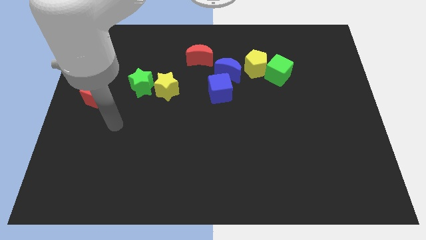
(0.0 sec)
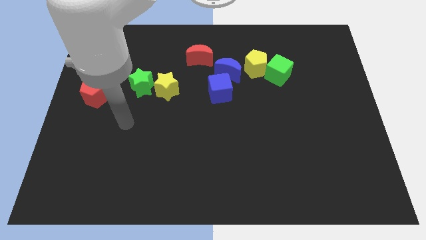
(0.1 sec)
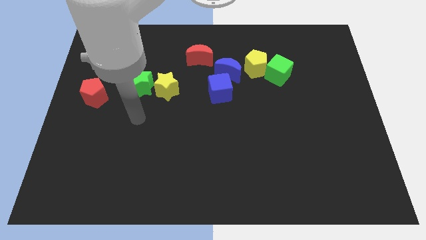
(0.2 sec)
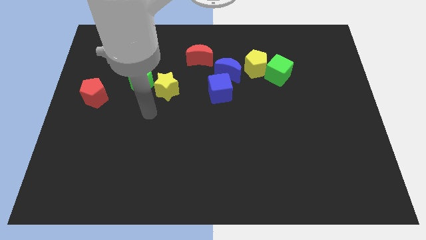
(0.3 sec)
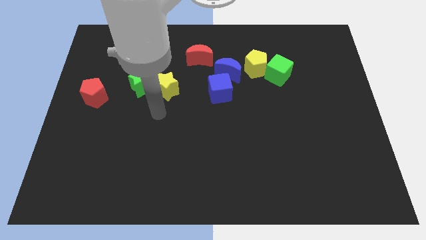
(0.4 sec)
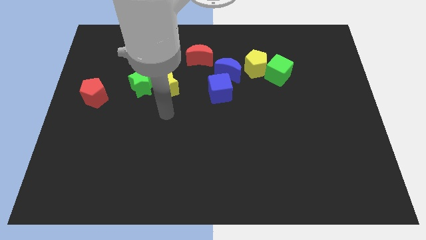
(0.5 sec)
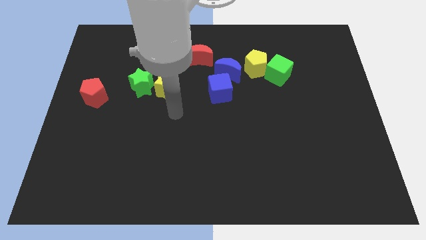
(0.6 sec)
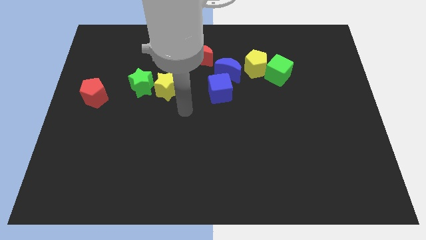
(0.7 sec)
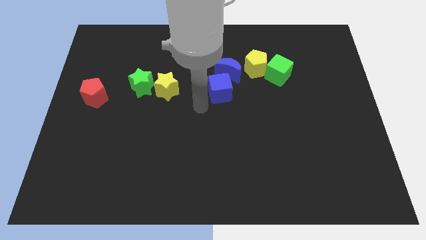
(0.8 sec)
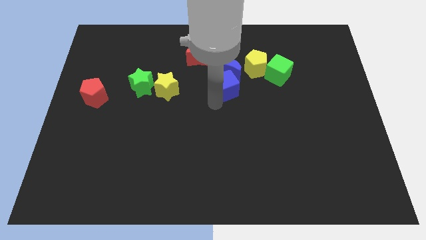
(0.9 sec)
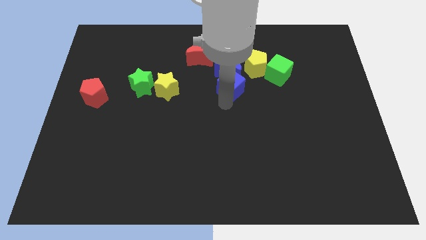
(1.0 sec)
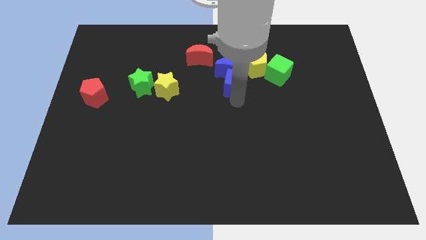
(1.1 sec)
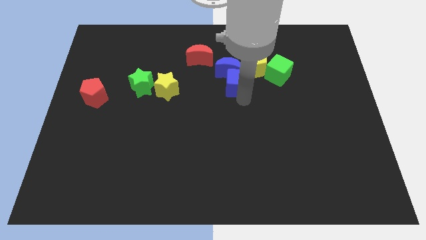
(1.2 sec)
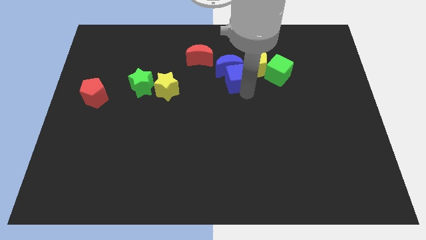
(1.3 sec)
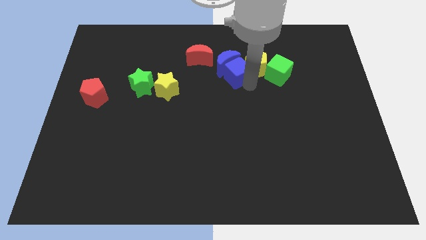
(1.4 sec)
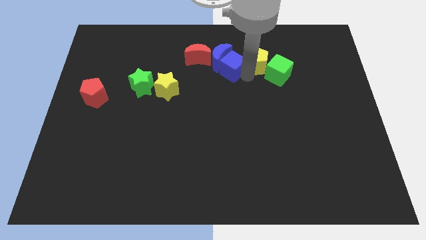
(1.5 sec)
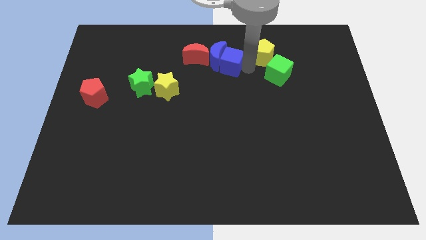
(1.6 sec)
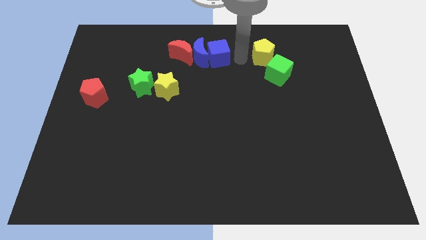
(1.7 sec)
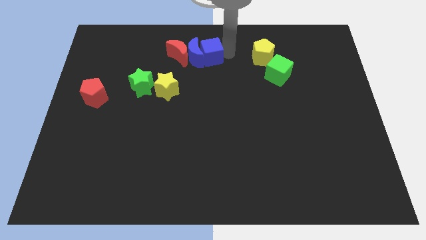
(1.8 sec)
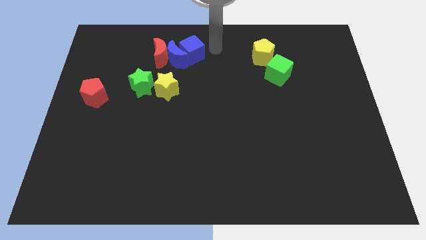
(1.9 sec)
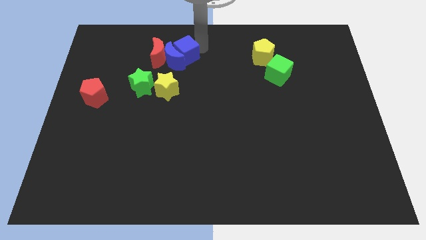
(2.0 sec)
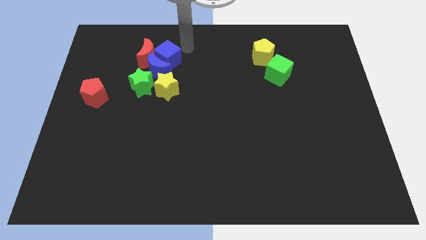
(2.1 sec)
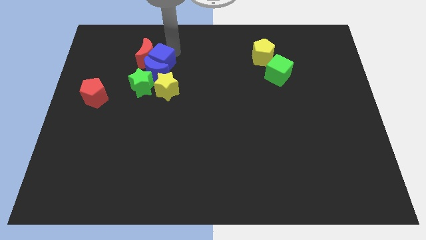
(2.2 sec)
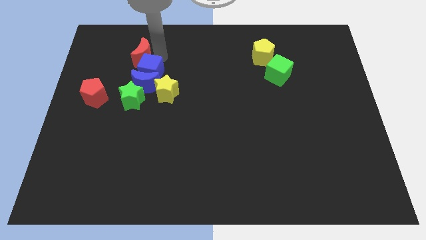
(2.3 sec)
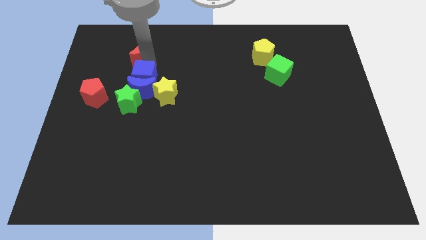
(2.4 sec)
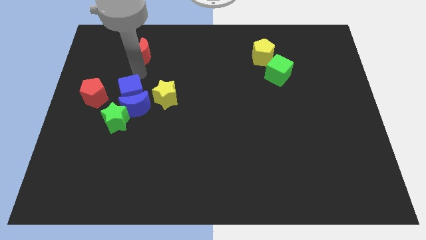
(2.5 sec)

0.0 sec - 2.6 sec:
push the blue moon down and left

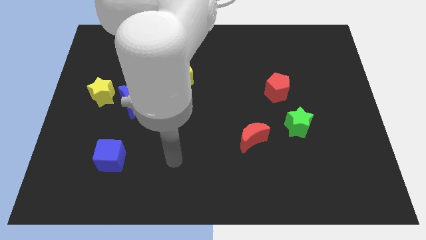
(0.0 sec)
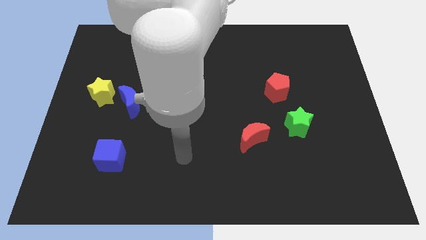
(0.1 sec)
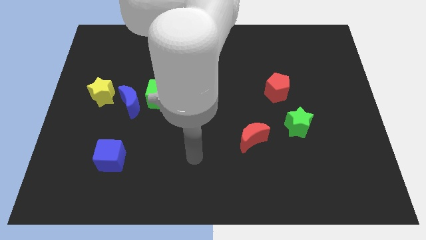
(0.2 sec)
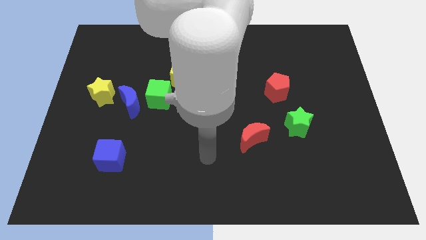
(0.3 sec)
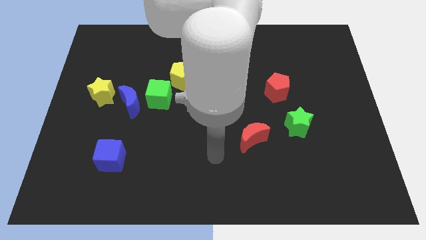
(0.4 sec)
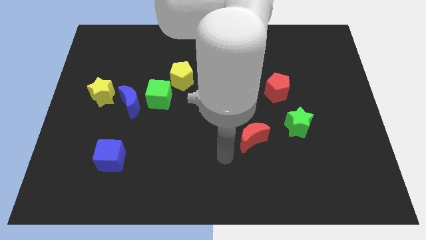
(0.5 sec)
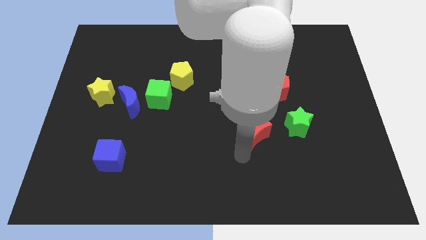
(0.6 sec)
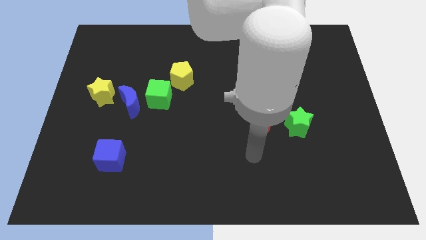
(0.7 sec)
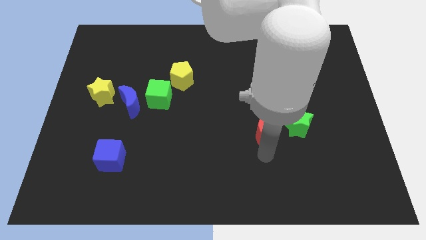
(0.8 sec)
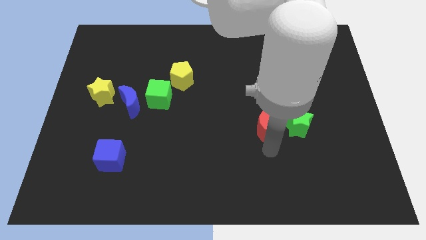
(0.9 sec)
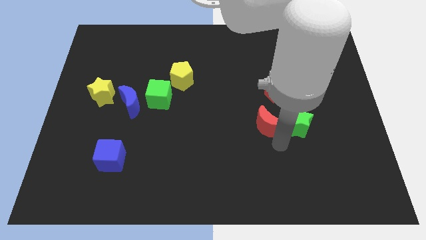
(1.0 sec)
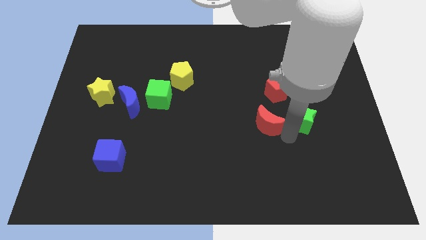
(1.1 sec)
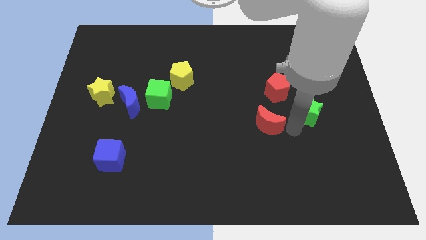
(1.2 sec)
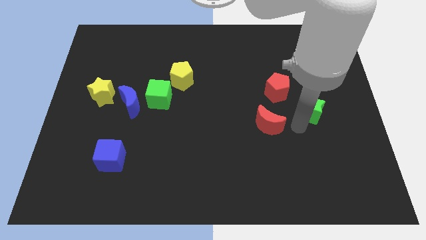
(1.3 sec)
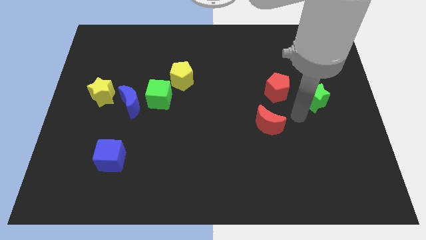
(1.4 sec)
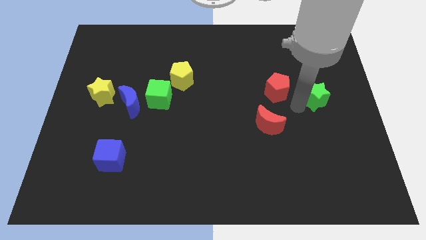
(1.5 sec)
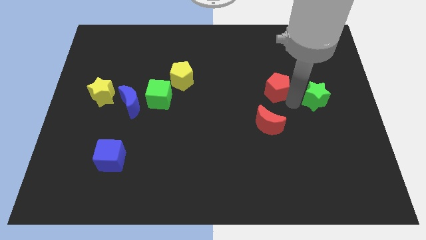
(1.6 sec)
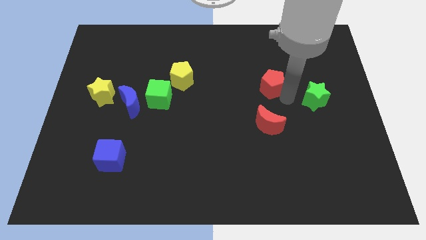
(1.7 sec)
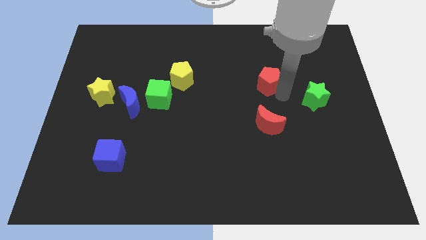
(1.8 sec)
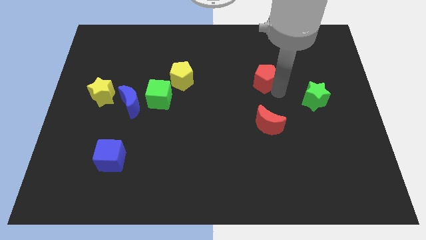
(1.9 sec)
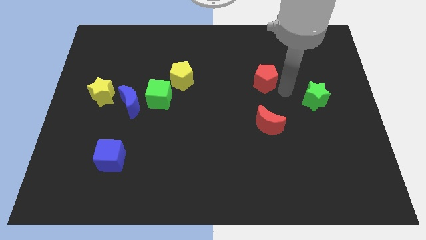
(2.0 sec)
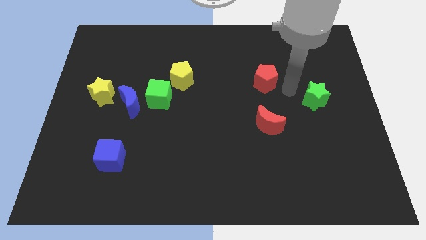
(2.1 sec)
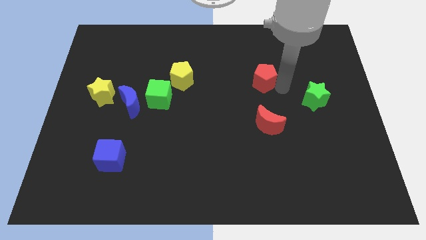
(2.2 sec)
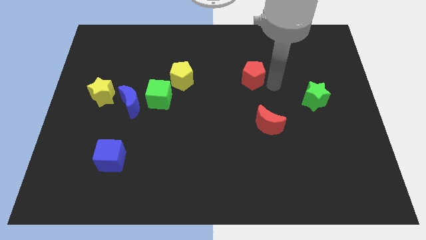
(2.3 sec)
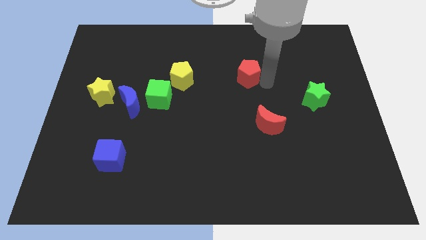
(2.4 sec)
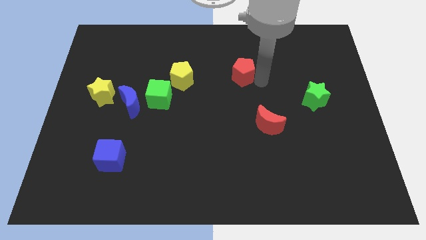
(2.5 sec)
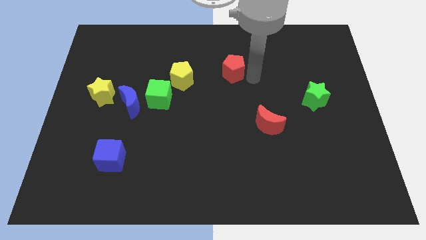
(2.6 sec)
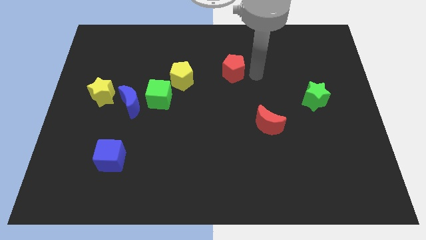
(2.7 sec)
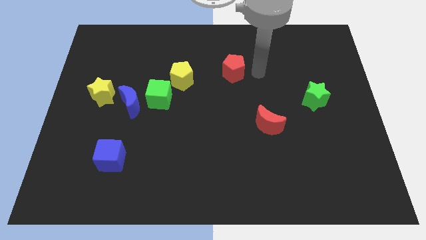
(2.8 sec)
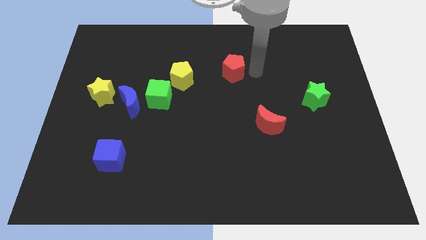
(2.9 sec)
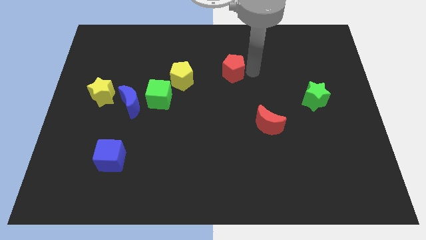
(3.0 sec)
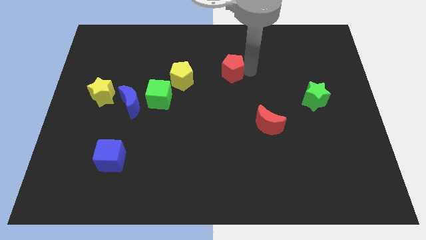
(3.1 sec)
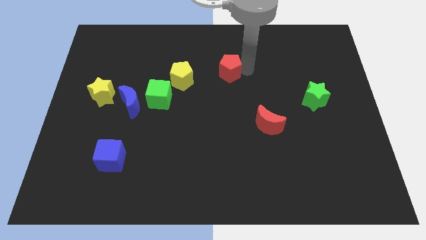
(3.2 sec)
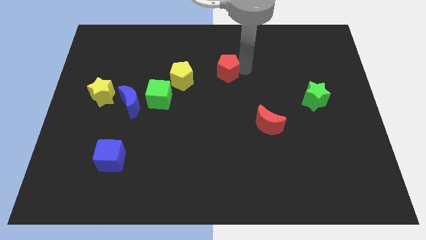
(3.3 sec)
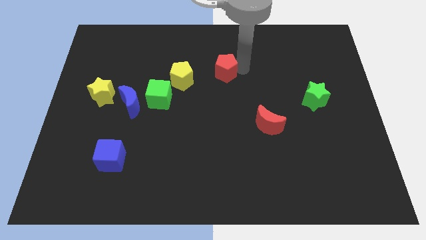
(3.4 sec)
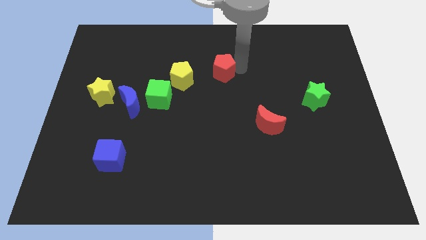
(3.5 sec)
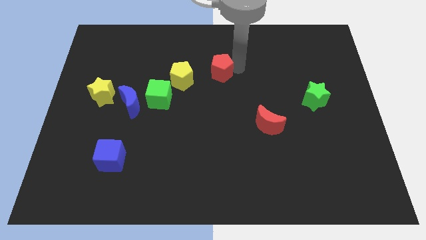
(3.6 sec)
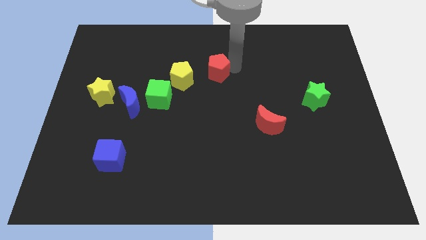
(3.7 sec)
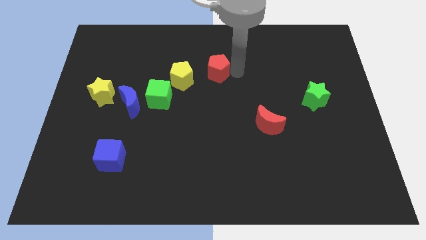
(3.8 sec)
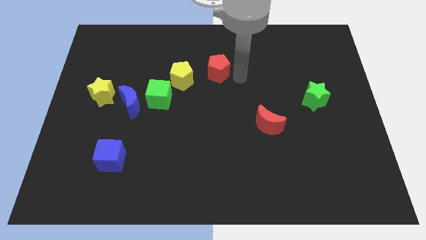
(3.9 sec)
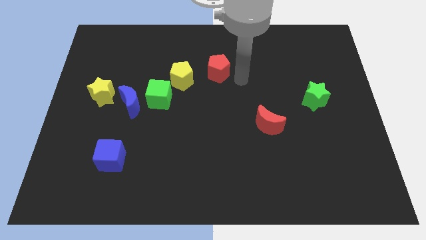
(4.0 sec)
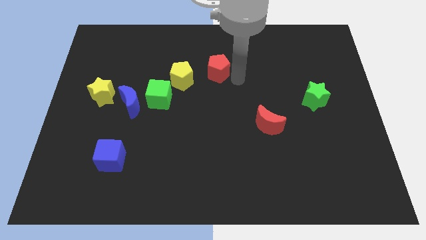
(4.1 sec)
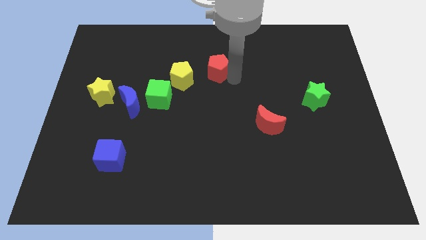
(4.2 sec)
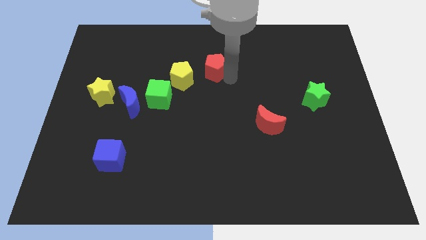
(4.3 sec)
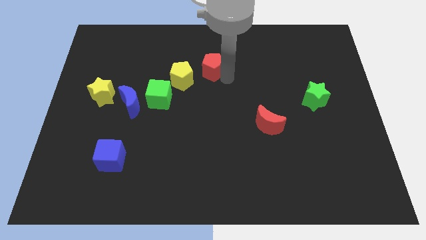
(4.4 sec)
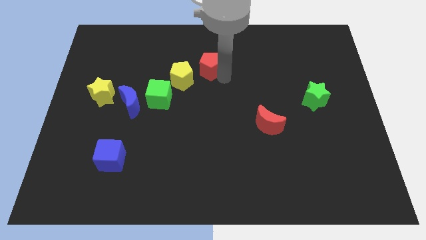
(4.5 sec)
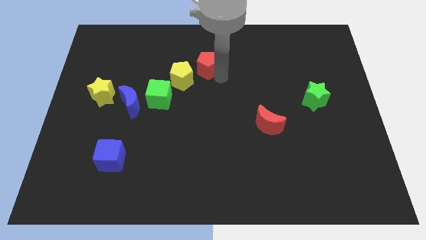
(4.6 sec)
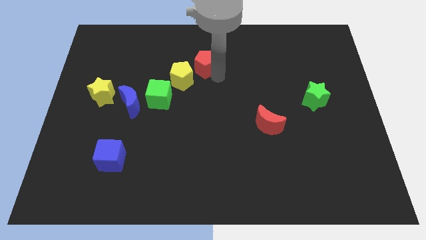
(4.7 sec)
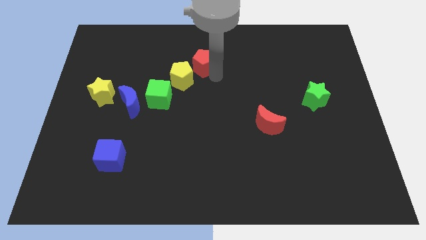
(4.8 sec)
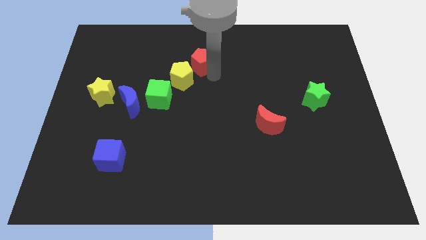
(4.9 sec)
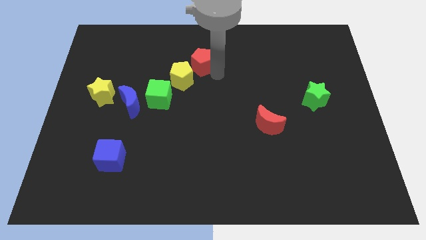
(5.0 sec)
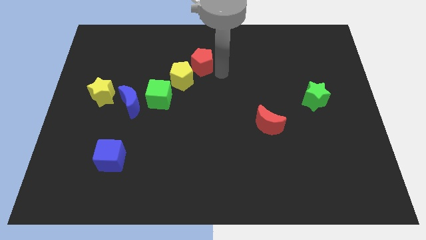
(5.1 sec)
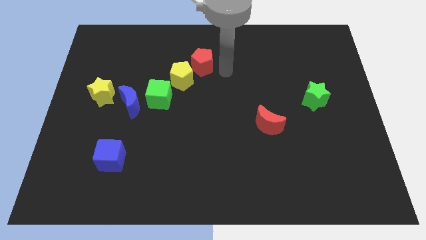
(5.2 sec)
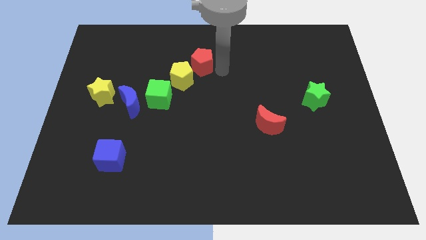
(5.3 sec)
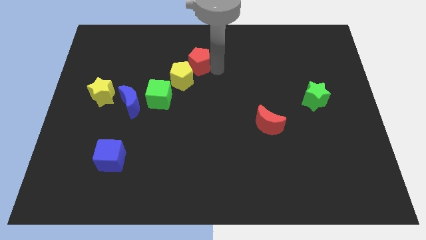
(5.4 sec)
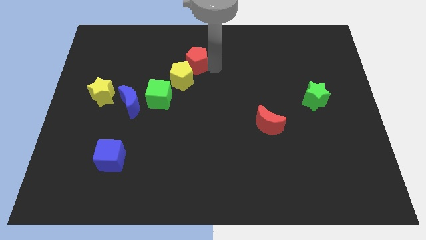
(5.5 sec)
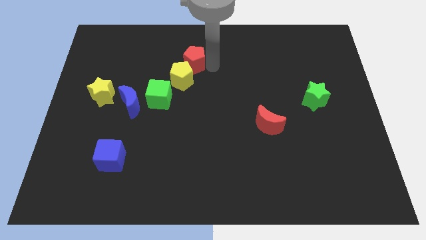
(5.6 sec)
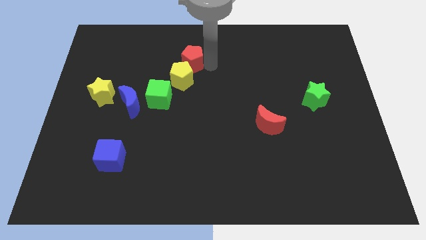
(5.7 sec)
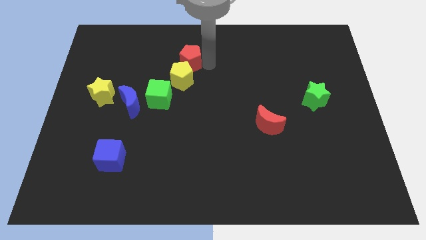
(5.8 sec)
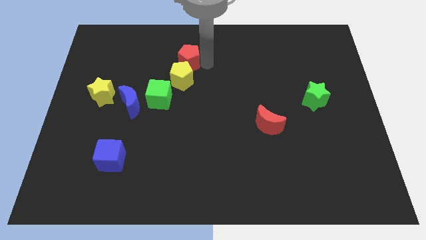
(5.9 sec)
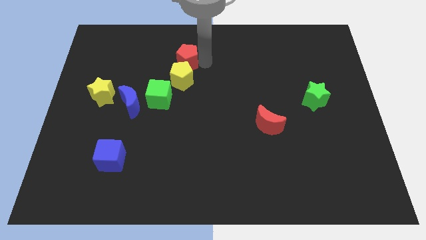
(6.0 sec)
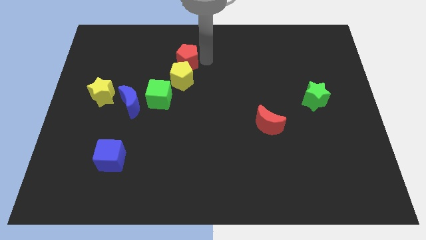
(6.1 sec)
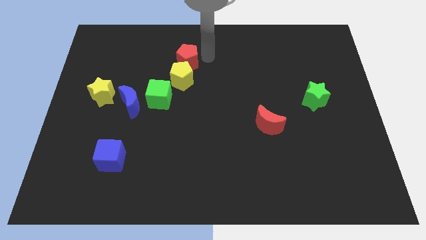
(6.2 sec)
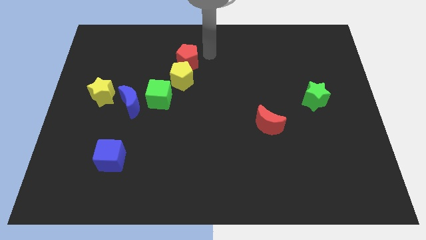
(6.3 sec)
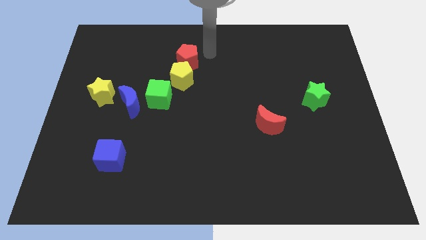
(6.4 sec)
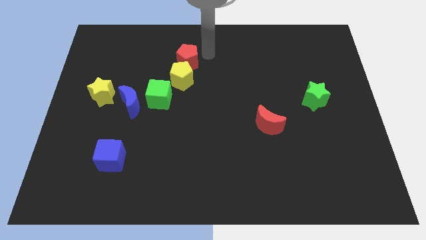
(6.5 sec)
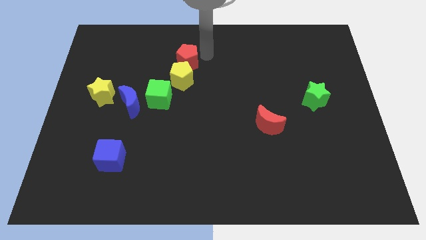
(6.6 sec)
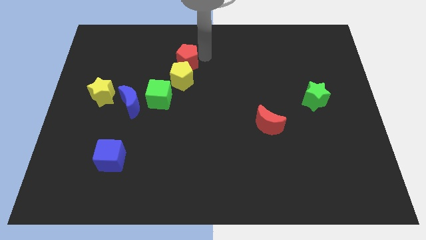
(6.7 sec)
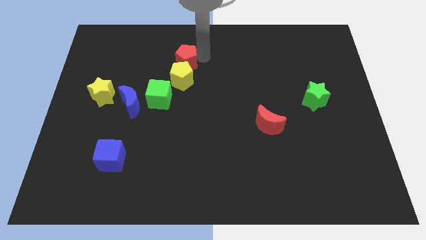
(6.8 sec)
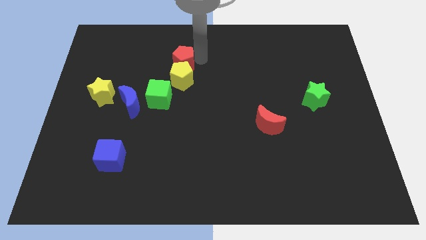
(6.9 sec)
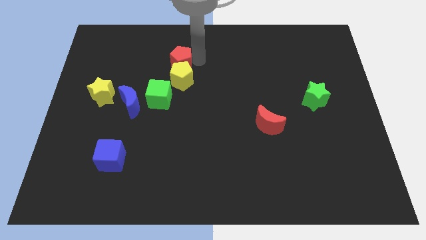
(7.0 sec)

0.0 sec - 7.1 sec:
push the red pentagon to the left
